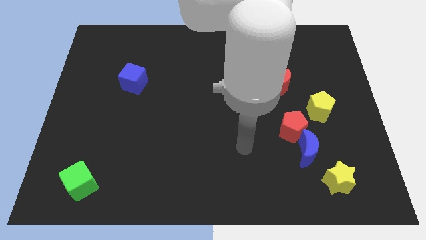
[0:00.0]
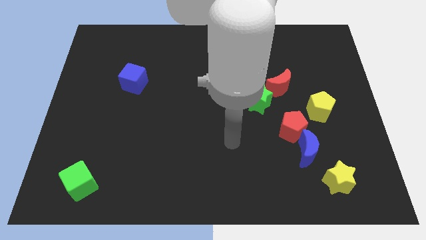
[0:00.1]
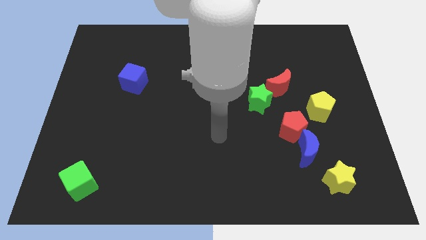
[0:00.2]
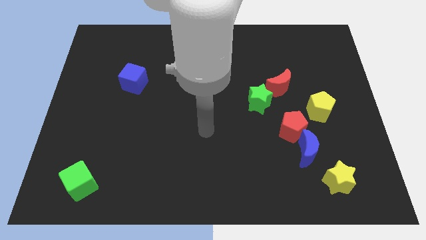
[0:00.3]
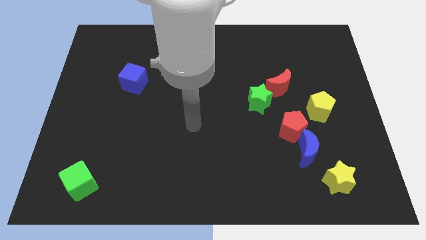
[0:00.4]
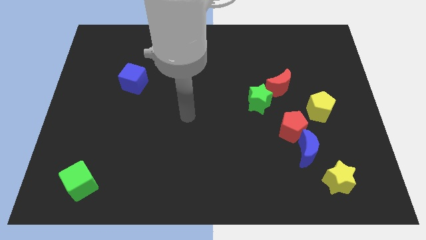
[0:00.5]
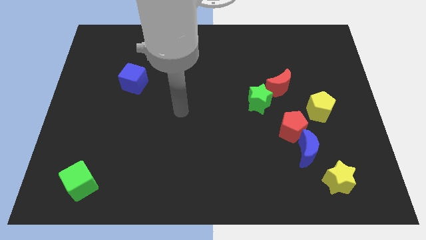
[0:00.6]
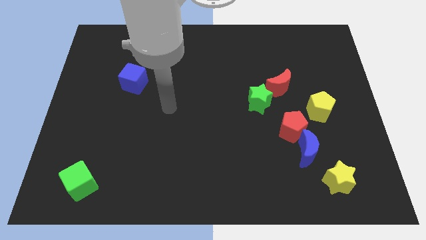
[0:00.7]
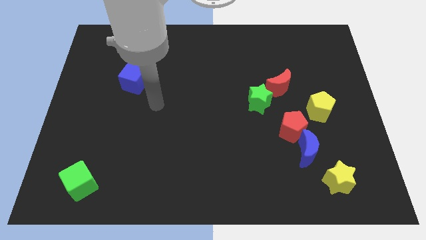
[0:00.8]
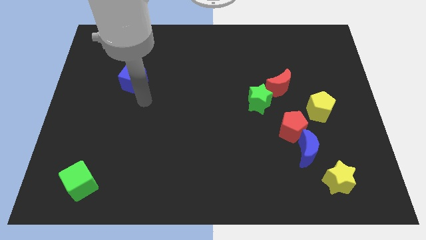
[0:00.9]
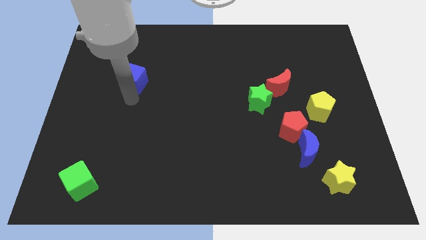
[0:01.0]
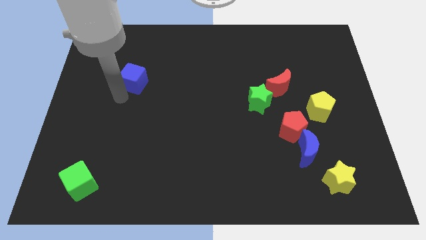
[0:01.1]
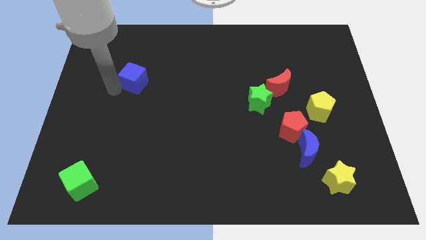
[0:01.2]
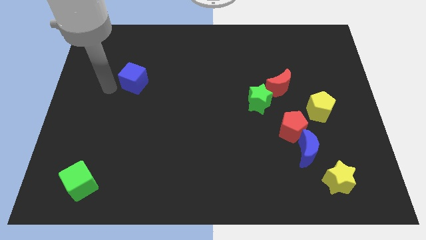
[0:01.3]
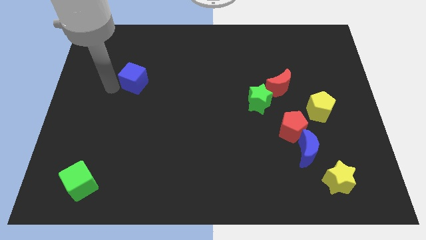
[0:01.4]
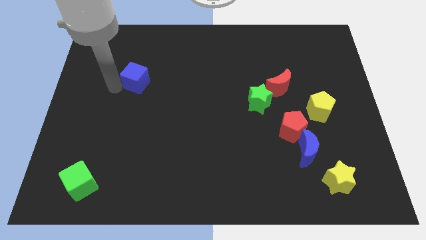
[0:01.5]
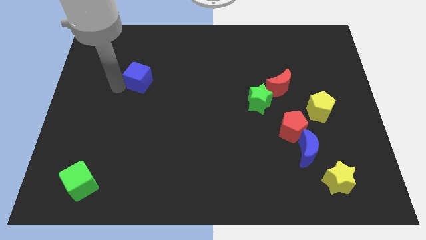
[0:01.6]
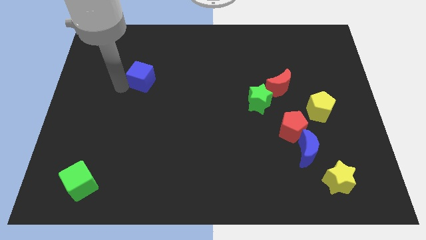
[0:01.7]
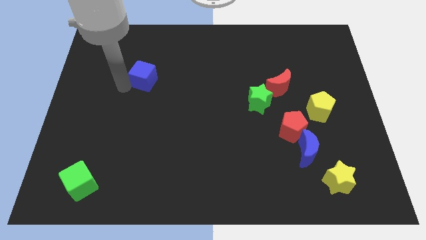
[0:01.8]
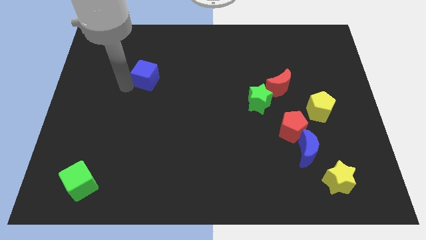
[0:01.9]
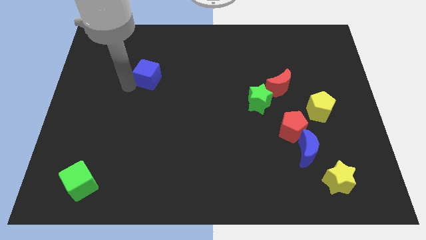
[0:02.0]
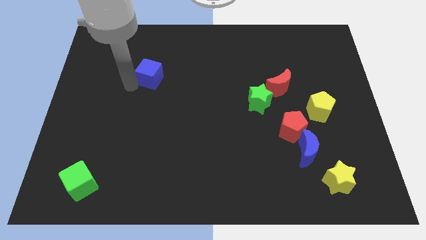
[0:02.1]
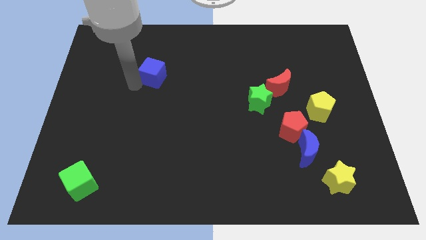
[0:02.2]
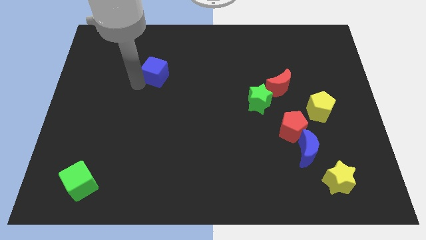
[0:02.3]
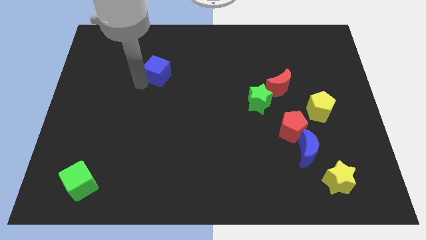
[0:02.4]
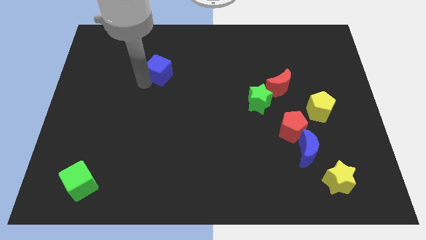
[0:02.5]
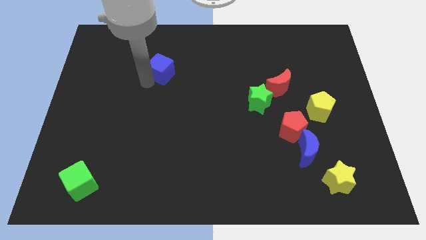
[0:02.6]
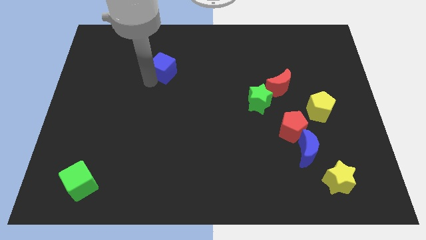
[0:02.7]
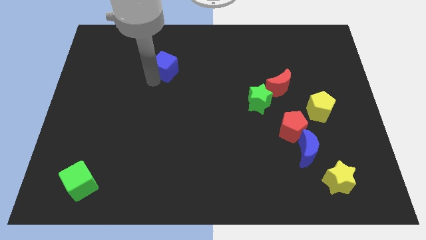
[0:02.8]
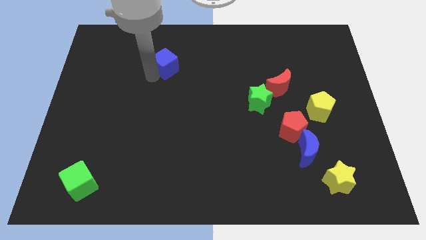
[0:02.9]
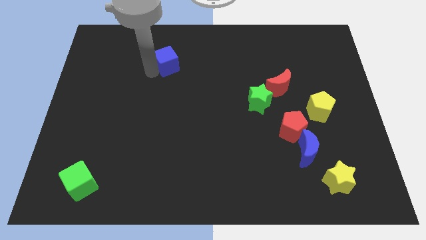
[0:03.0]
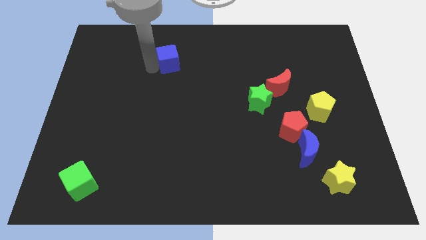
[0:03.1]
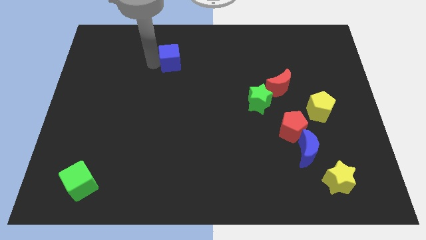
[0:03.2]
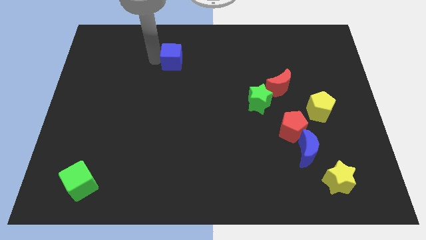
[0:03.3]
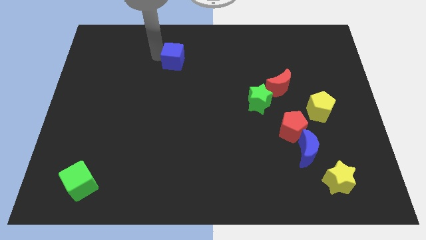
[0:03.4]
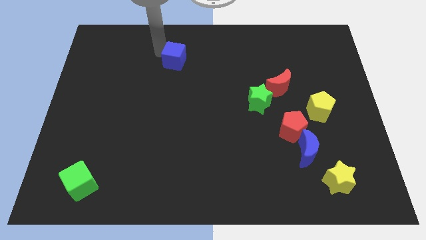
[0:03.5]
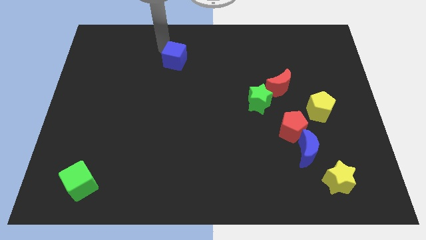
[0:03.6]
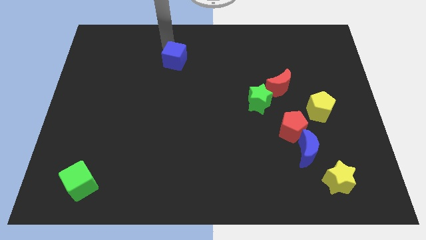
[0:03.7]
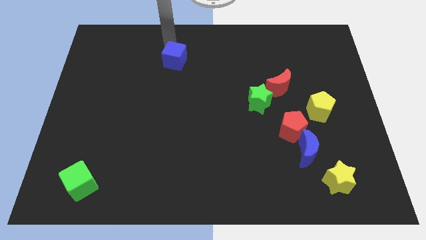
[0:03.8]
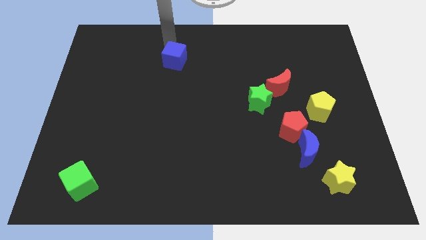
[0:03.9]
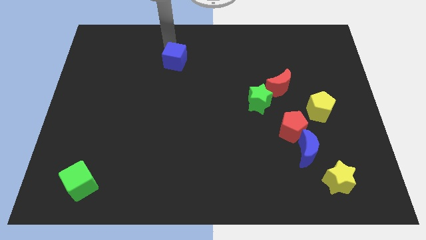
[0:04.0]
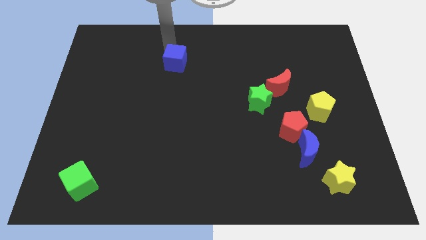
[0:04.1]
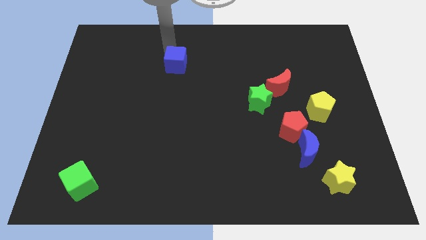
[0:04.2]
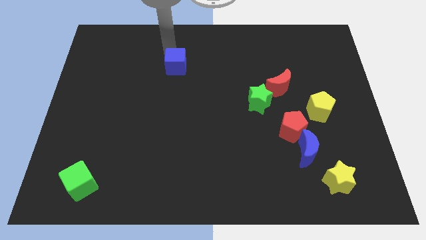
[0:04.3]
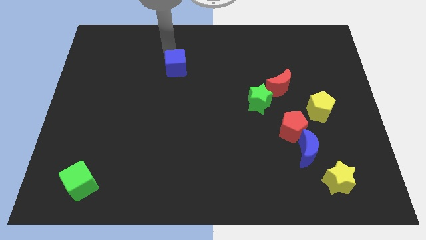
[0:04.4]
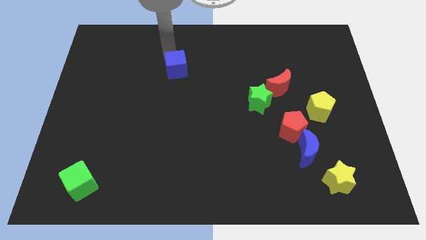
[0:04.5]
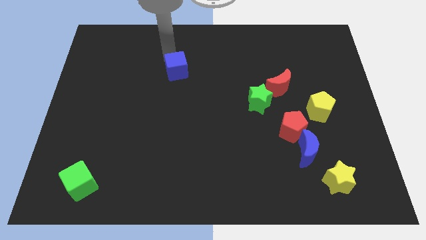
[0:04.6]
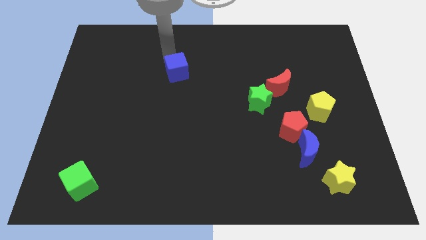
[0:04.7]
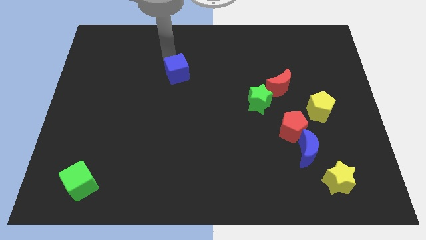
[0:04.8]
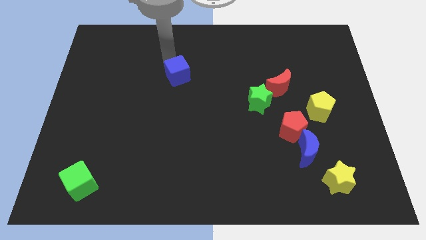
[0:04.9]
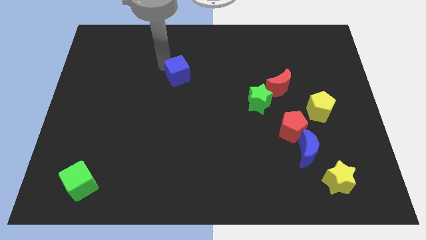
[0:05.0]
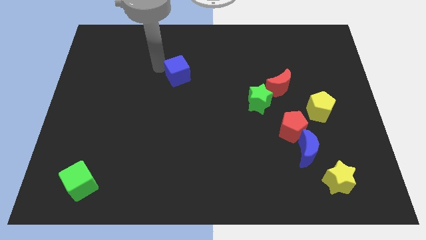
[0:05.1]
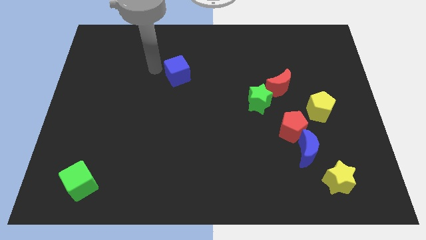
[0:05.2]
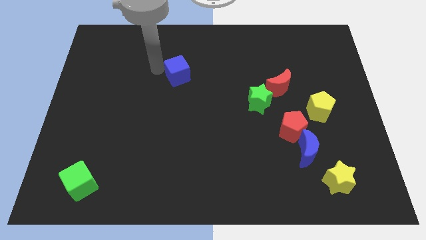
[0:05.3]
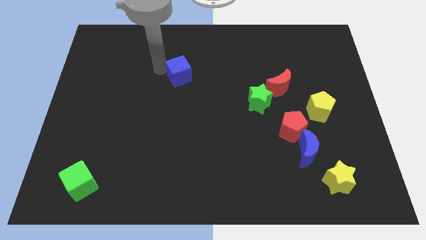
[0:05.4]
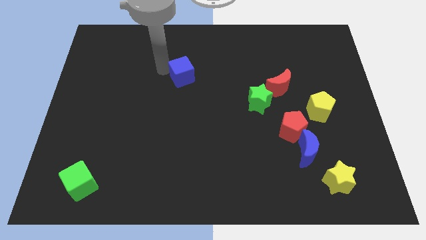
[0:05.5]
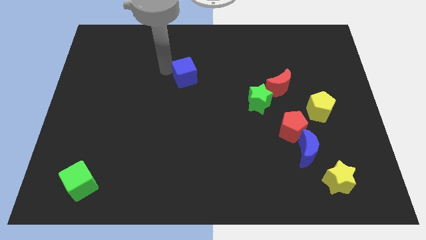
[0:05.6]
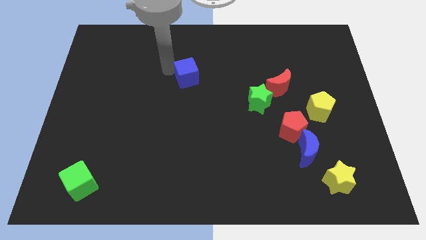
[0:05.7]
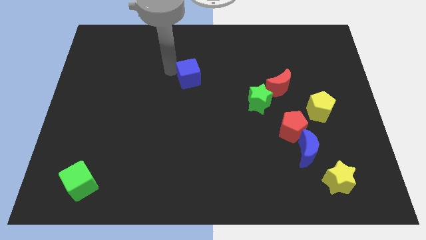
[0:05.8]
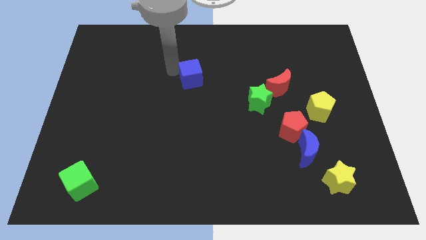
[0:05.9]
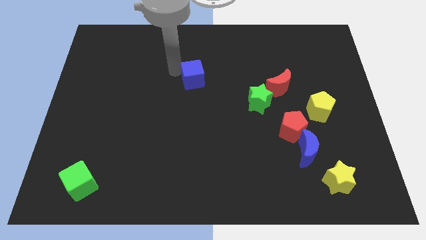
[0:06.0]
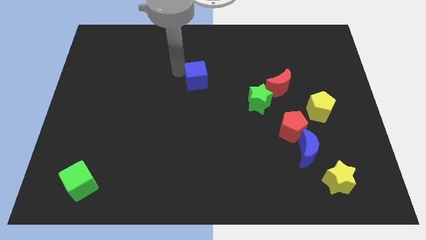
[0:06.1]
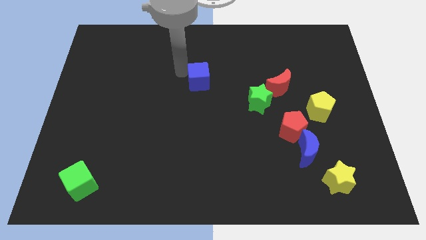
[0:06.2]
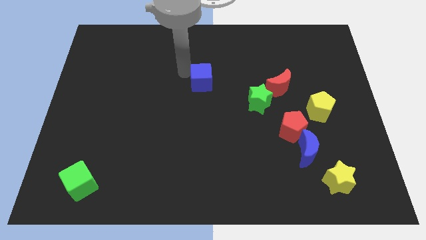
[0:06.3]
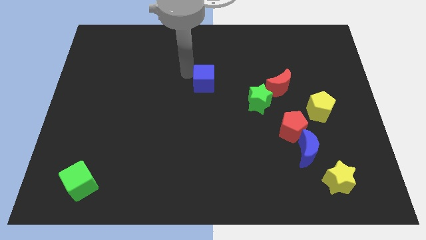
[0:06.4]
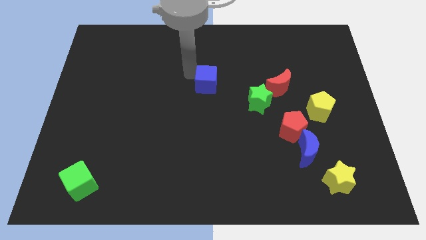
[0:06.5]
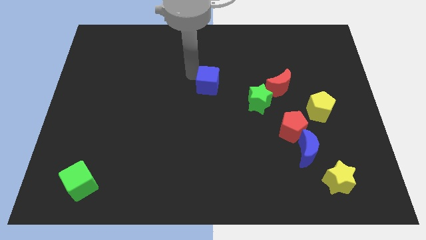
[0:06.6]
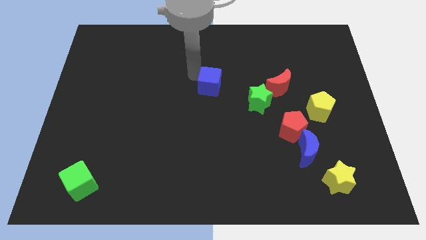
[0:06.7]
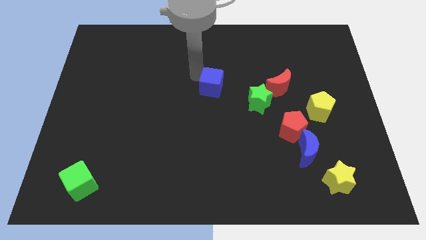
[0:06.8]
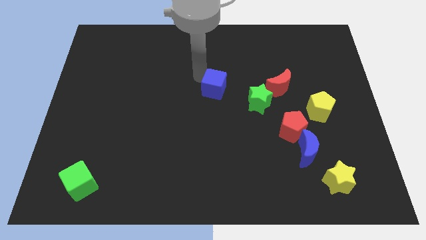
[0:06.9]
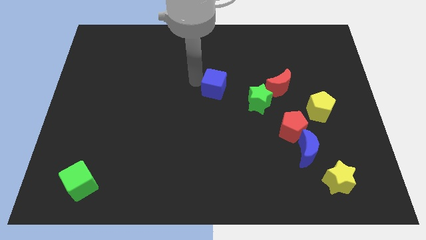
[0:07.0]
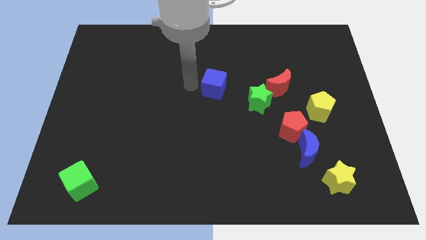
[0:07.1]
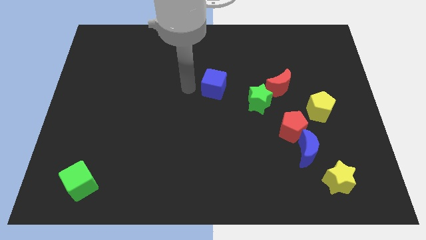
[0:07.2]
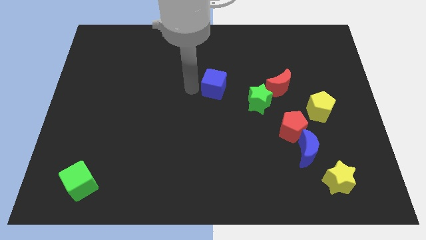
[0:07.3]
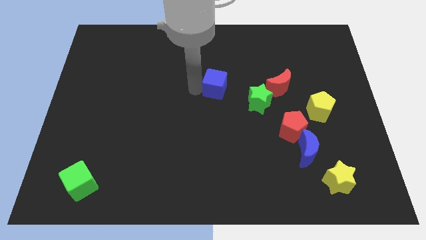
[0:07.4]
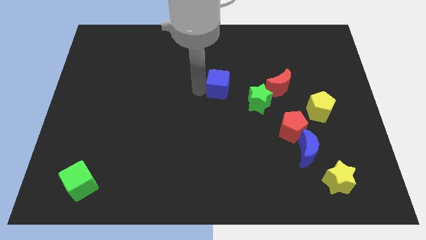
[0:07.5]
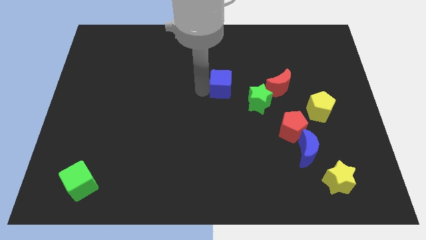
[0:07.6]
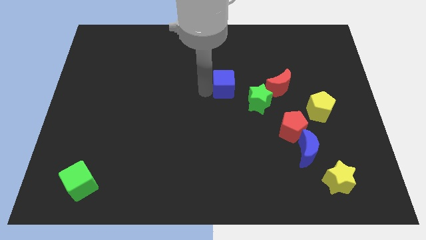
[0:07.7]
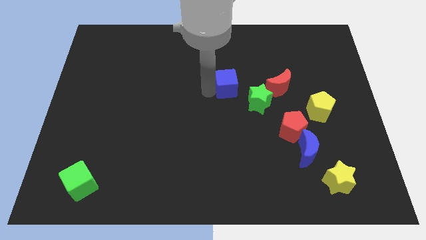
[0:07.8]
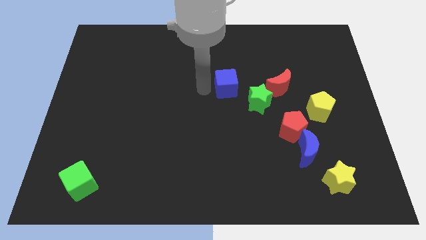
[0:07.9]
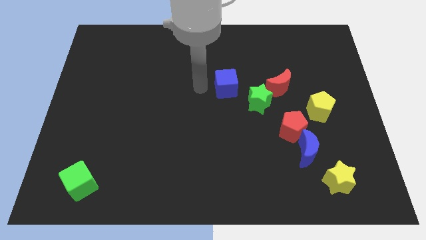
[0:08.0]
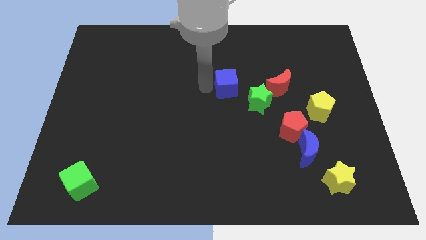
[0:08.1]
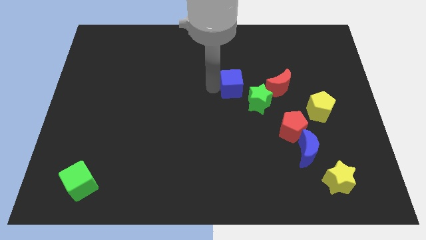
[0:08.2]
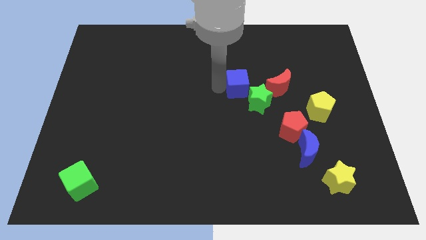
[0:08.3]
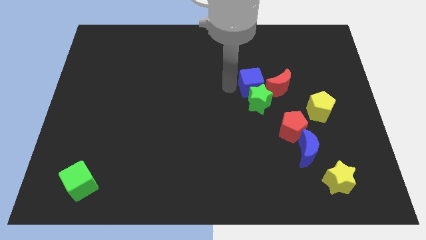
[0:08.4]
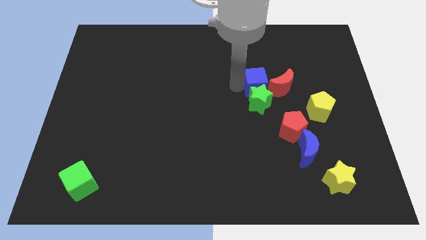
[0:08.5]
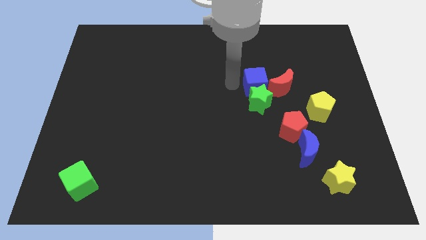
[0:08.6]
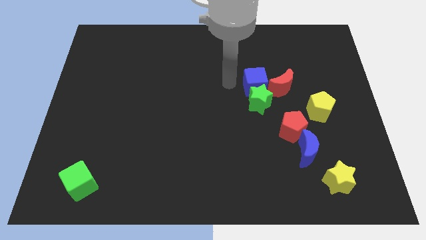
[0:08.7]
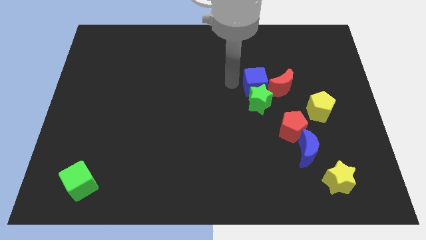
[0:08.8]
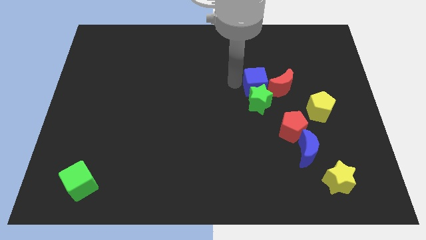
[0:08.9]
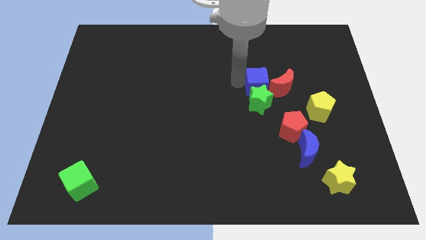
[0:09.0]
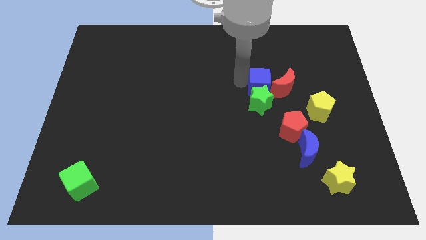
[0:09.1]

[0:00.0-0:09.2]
slide the blue cube towards the red moon
